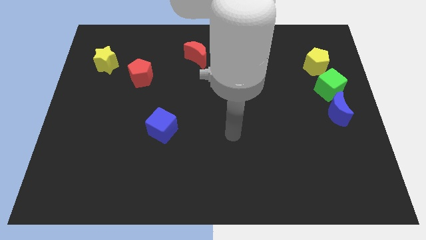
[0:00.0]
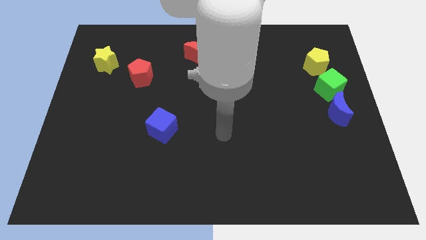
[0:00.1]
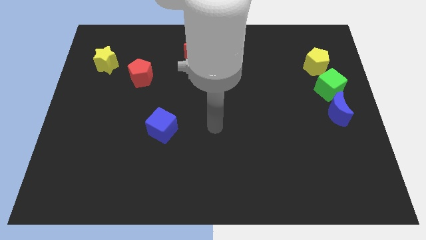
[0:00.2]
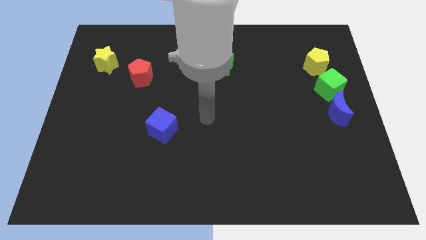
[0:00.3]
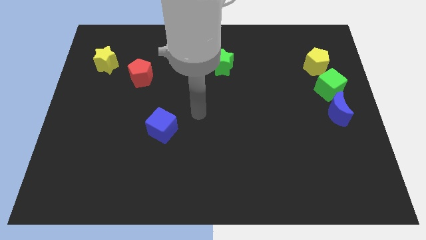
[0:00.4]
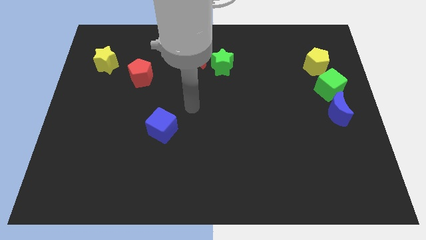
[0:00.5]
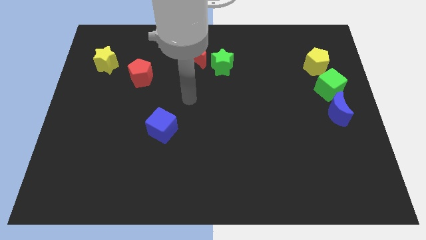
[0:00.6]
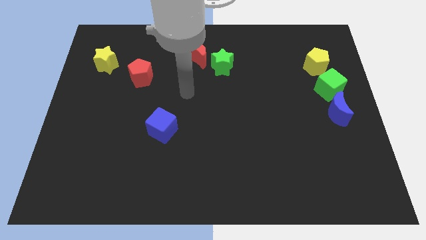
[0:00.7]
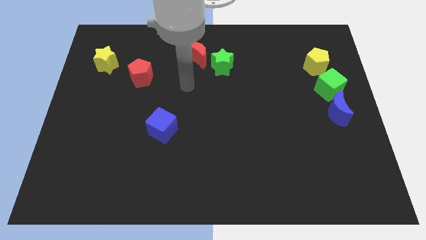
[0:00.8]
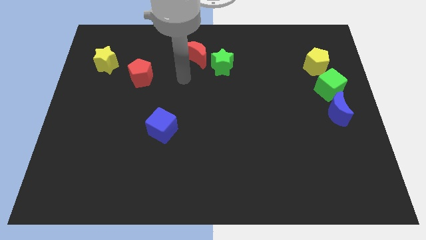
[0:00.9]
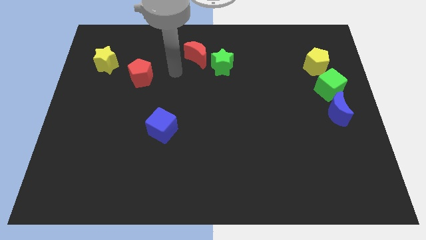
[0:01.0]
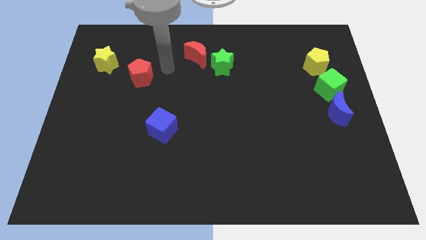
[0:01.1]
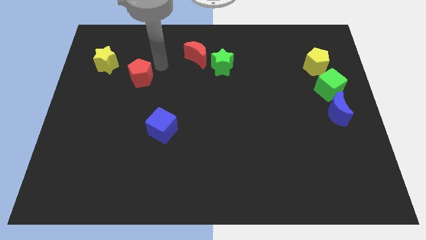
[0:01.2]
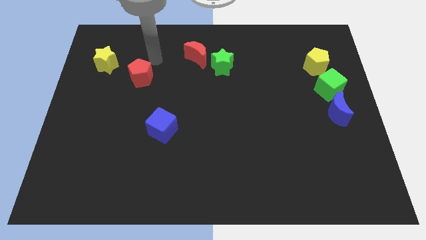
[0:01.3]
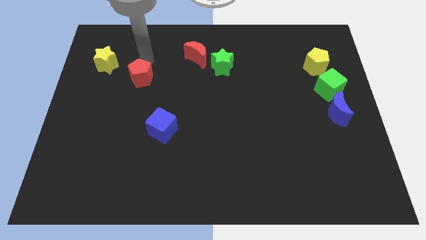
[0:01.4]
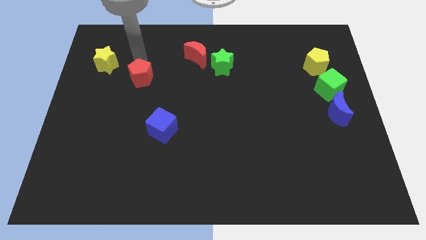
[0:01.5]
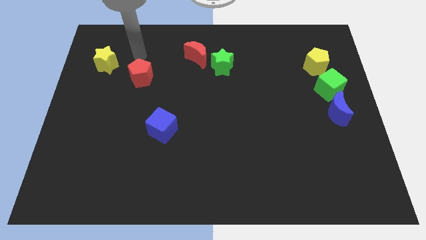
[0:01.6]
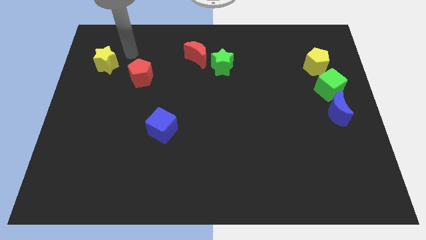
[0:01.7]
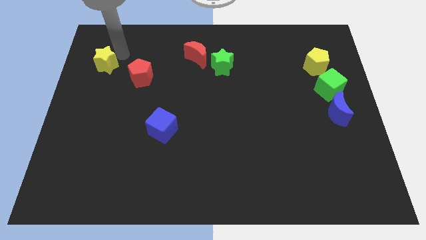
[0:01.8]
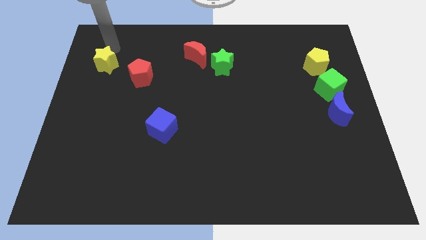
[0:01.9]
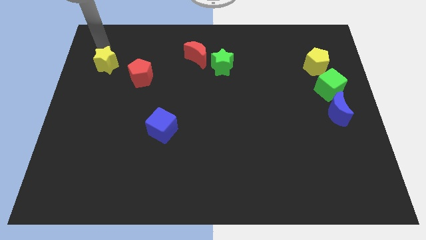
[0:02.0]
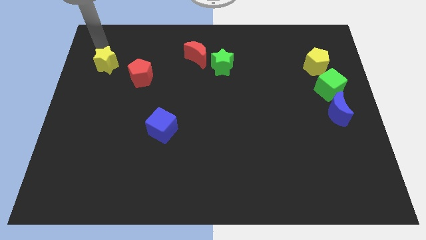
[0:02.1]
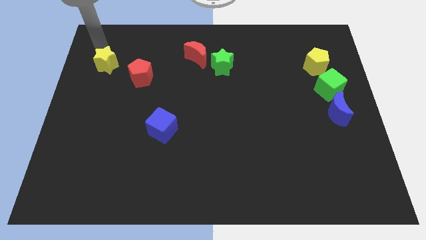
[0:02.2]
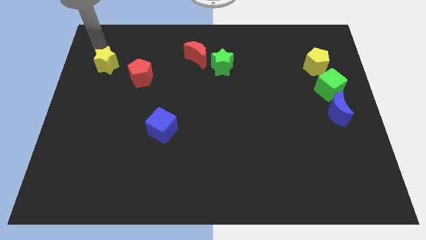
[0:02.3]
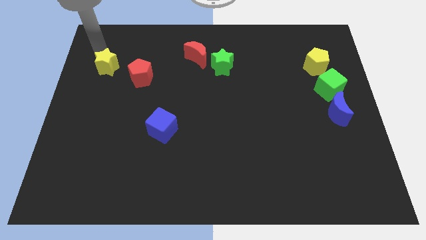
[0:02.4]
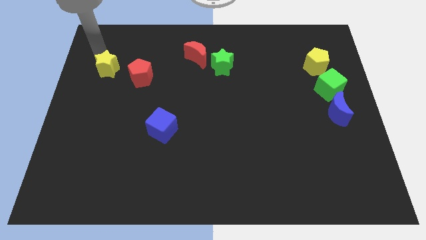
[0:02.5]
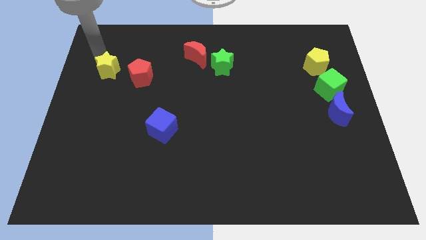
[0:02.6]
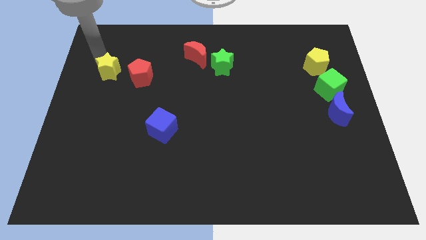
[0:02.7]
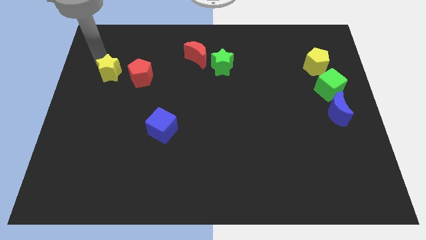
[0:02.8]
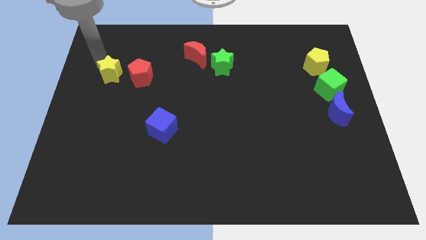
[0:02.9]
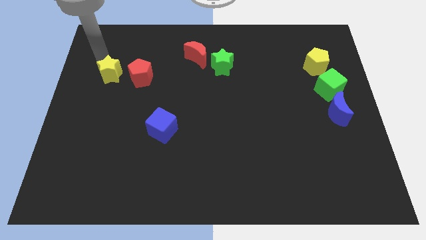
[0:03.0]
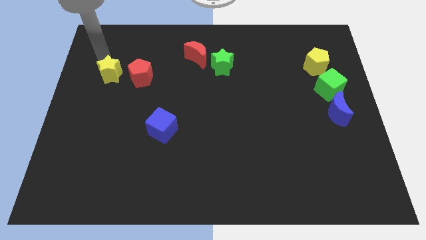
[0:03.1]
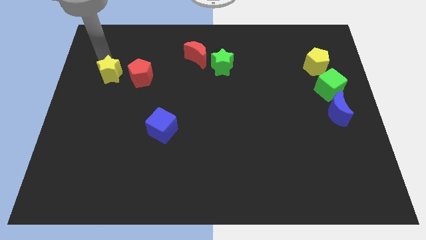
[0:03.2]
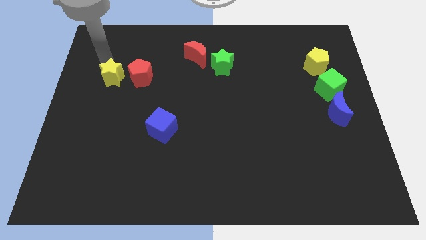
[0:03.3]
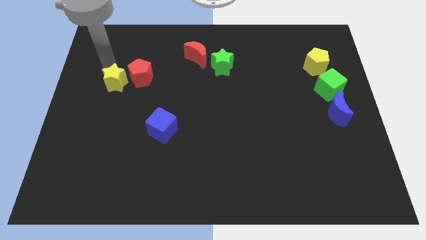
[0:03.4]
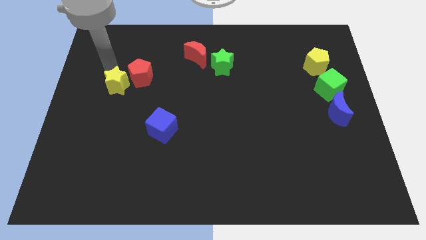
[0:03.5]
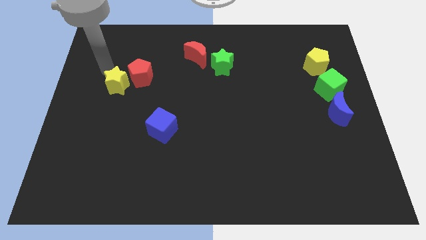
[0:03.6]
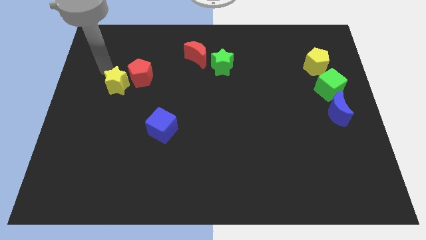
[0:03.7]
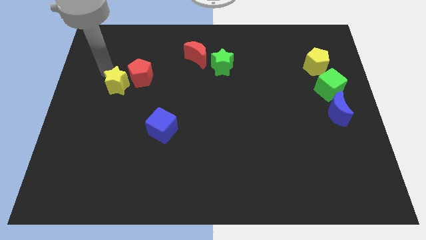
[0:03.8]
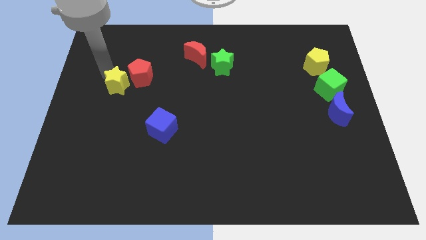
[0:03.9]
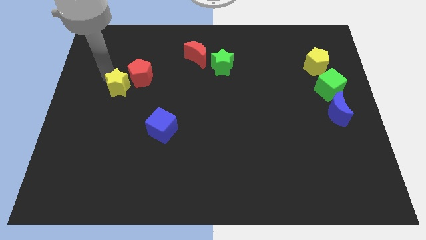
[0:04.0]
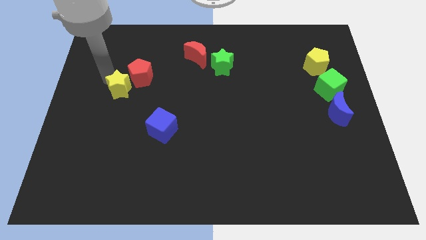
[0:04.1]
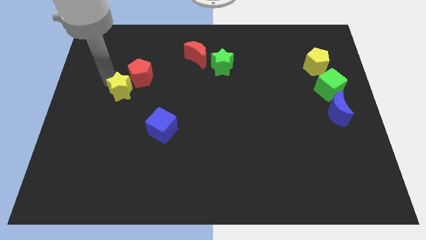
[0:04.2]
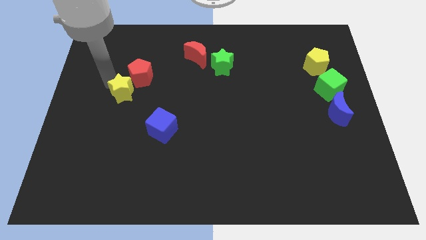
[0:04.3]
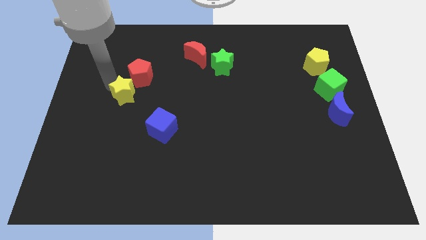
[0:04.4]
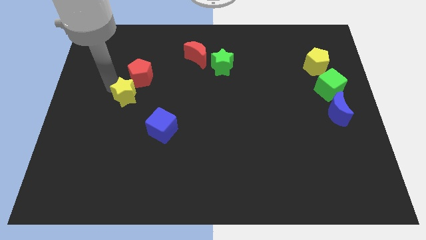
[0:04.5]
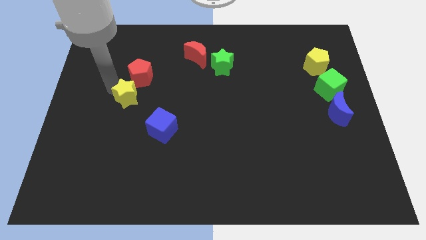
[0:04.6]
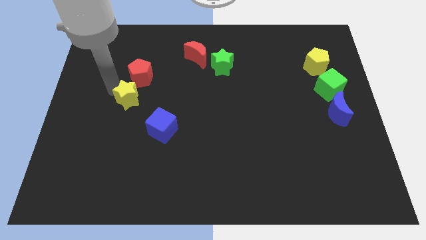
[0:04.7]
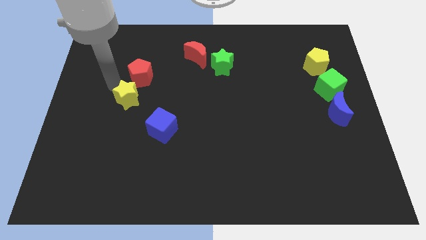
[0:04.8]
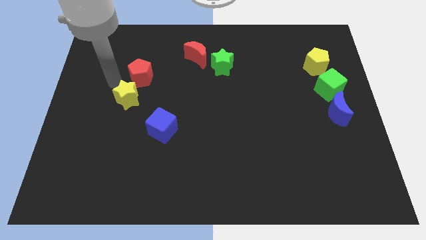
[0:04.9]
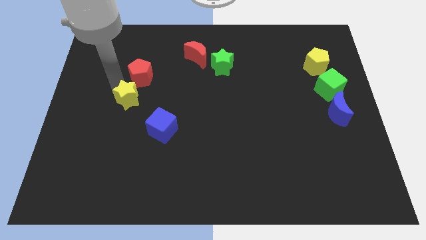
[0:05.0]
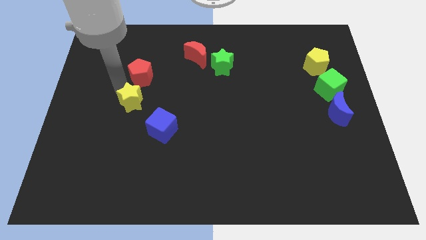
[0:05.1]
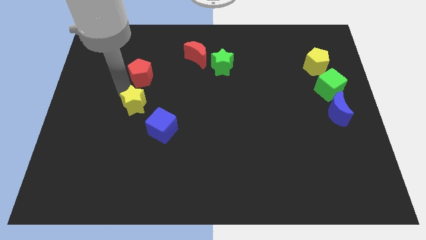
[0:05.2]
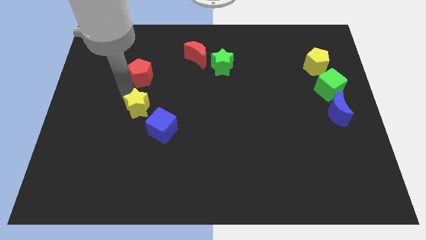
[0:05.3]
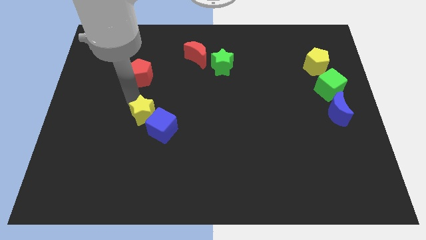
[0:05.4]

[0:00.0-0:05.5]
slide the yellow star next to the blue cube

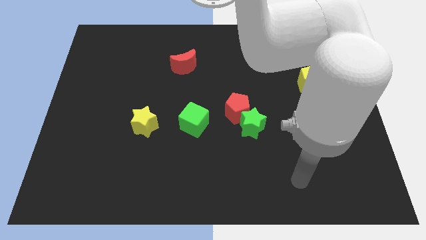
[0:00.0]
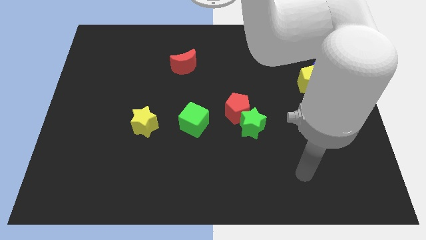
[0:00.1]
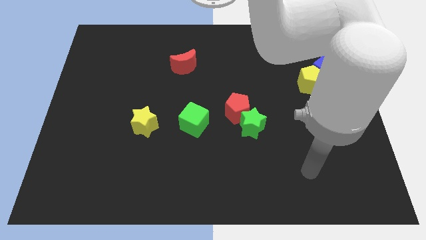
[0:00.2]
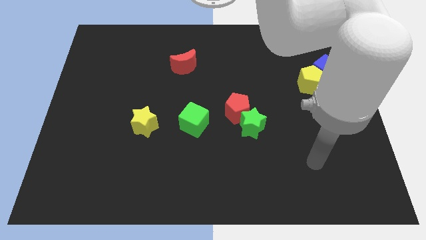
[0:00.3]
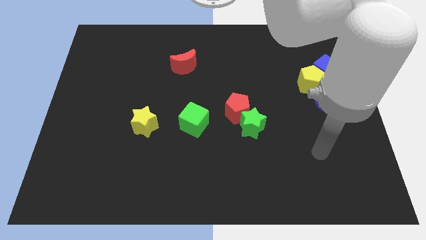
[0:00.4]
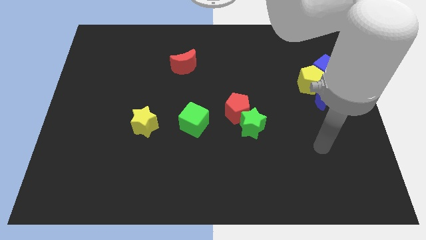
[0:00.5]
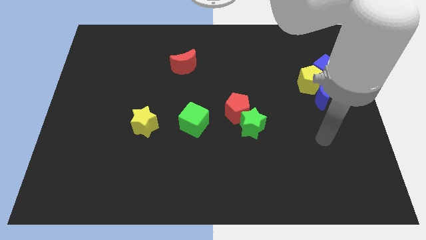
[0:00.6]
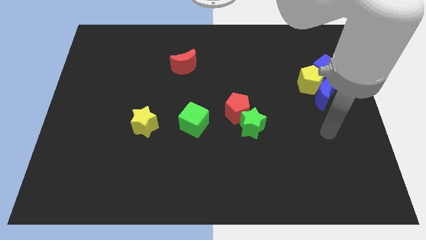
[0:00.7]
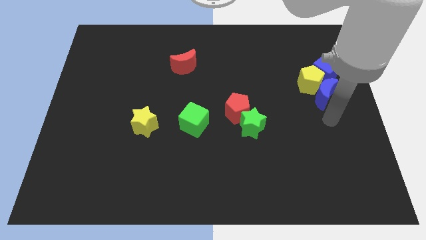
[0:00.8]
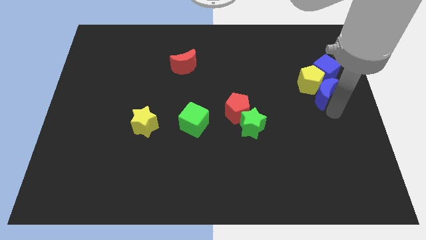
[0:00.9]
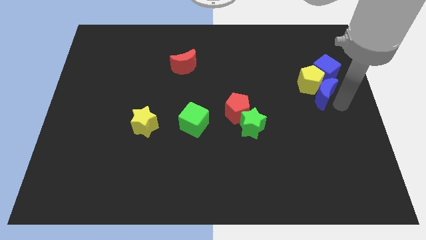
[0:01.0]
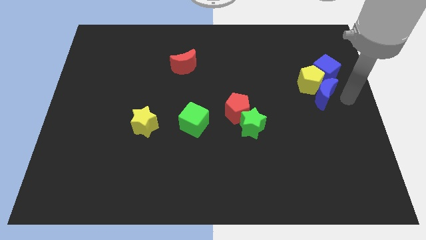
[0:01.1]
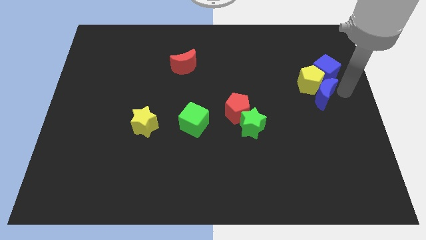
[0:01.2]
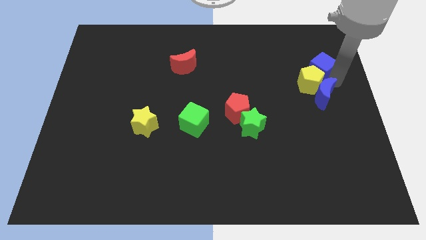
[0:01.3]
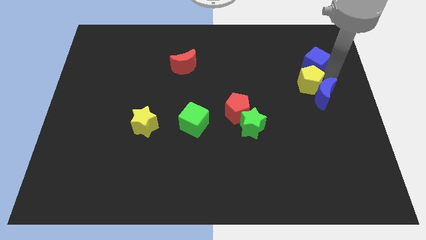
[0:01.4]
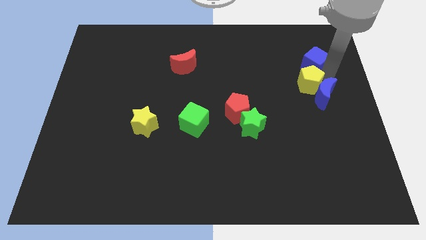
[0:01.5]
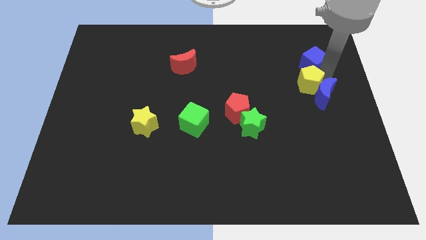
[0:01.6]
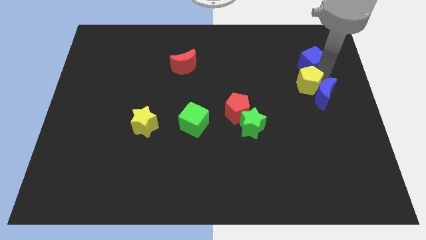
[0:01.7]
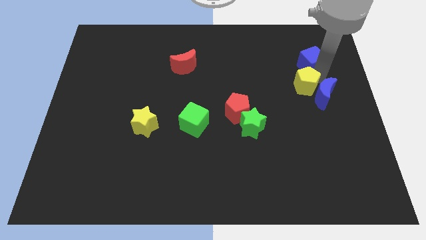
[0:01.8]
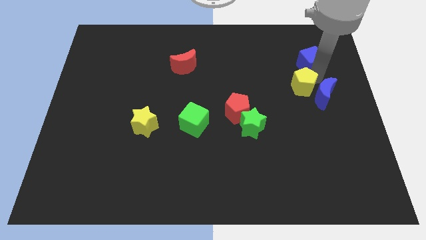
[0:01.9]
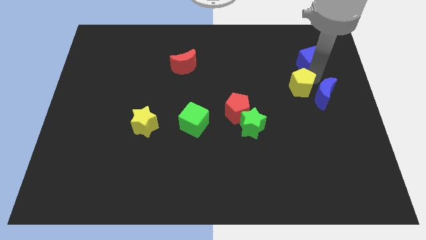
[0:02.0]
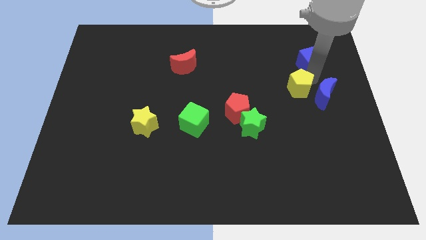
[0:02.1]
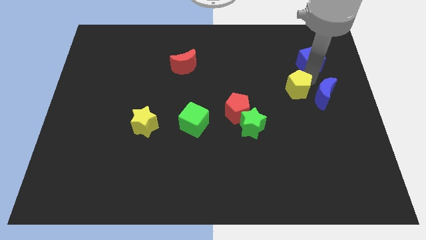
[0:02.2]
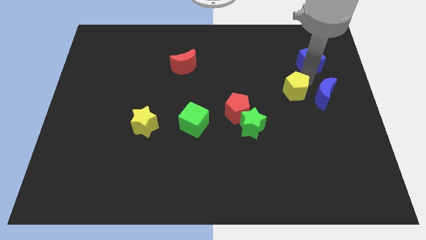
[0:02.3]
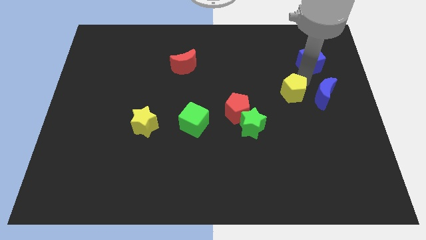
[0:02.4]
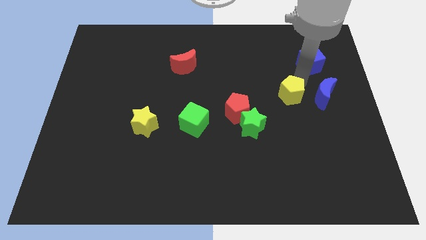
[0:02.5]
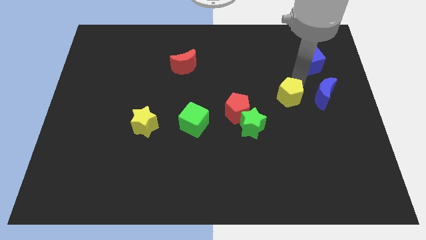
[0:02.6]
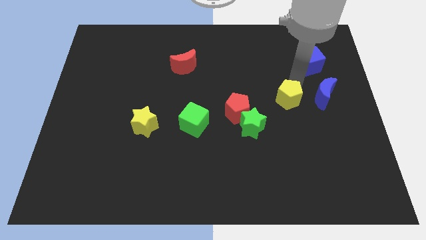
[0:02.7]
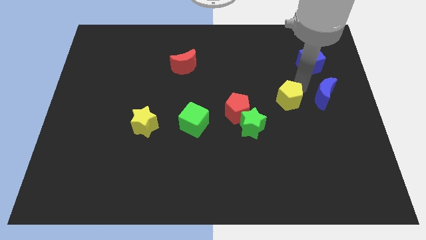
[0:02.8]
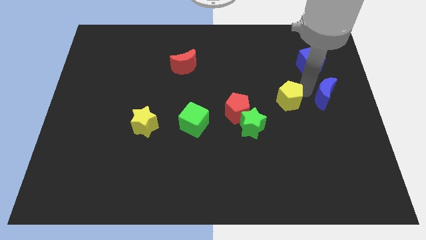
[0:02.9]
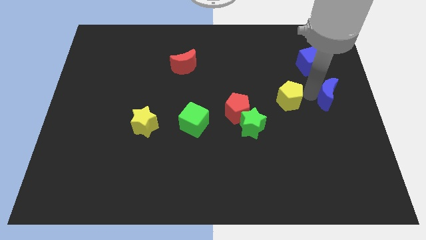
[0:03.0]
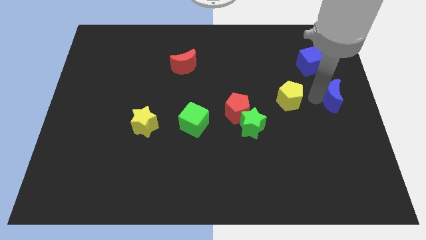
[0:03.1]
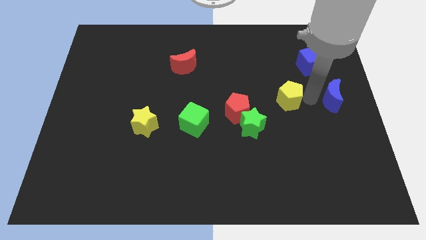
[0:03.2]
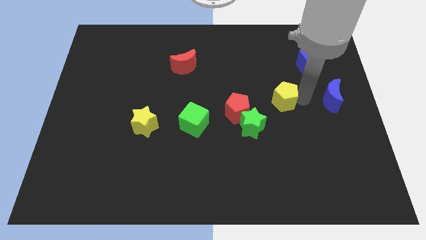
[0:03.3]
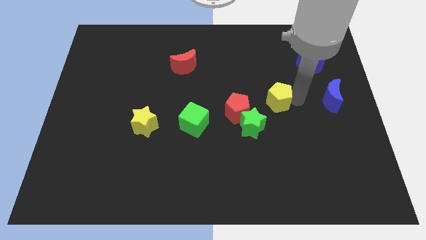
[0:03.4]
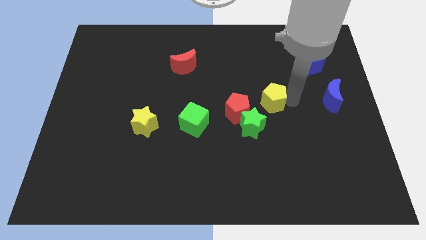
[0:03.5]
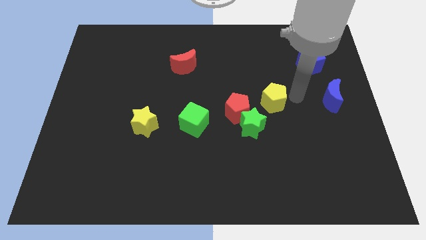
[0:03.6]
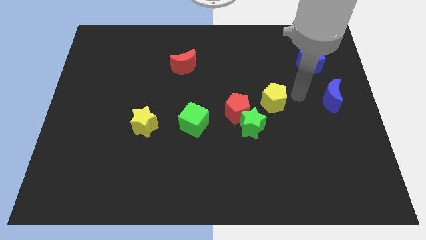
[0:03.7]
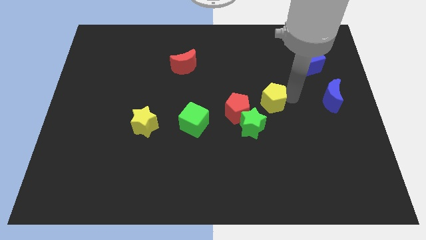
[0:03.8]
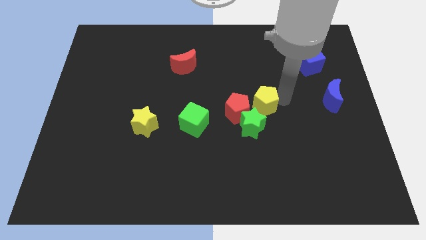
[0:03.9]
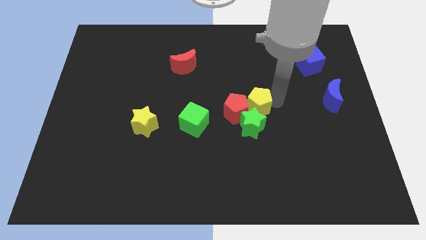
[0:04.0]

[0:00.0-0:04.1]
put the yellow pentagon next to the red pentagon
